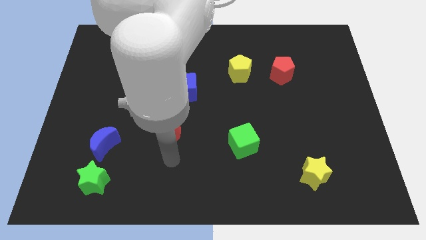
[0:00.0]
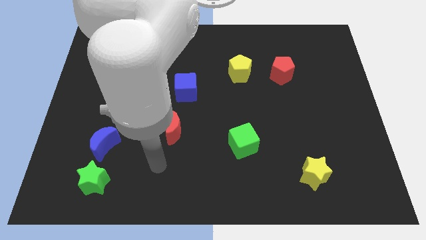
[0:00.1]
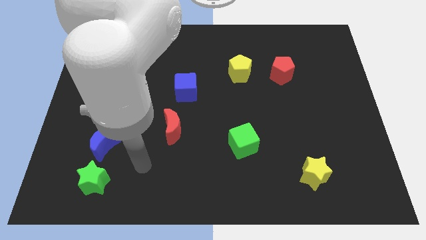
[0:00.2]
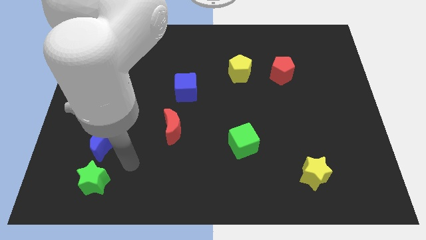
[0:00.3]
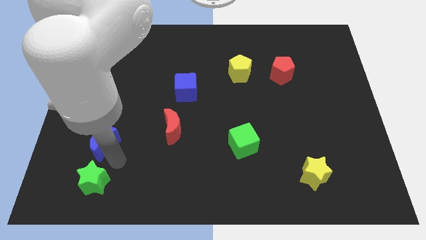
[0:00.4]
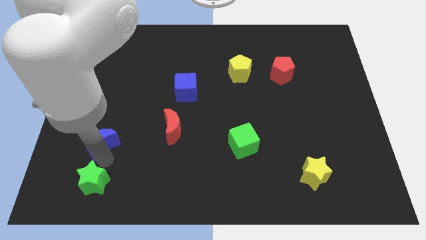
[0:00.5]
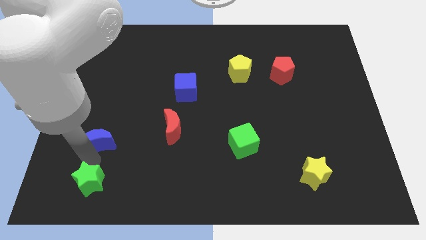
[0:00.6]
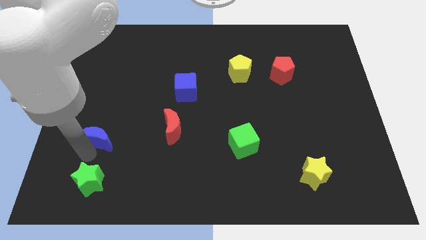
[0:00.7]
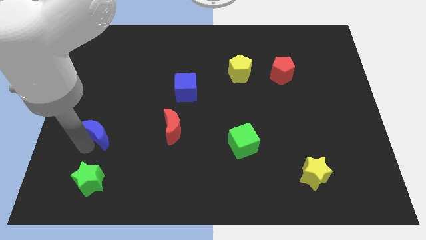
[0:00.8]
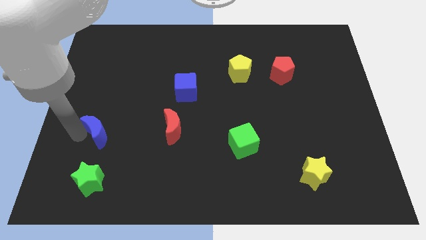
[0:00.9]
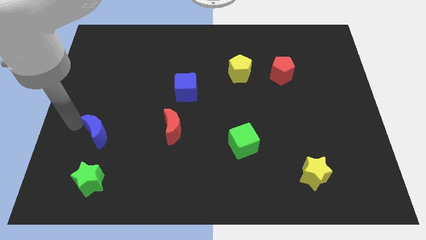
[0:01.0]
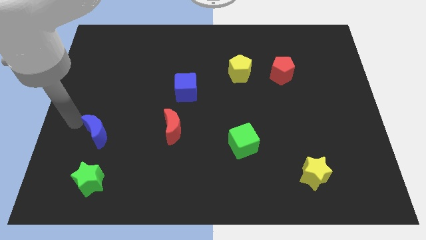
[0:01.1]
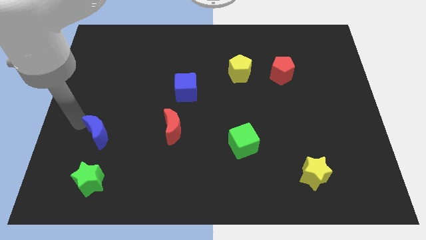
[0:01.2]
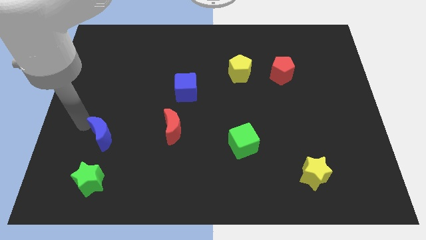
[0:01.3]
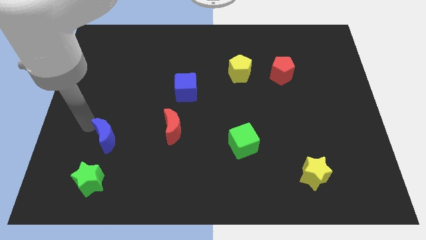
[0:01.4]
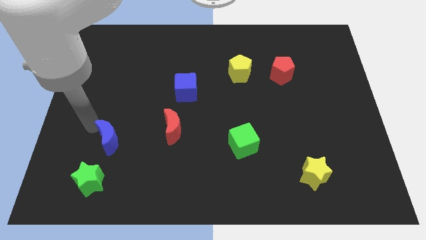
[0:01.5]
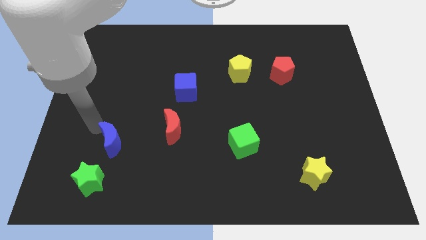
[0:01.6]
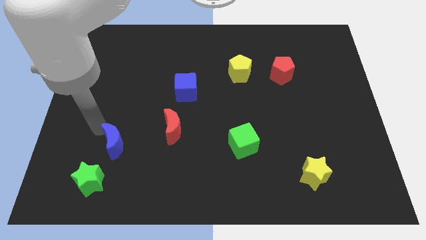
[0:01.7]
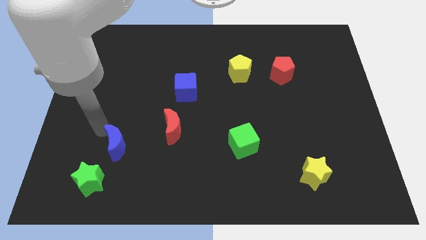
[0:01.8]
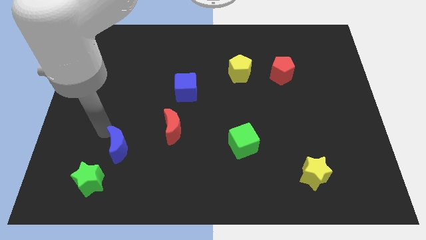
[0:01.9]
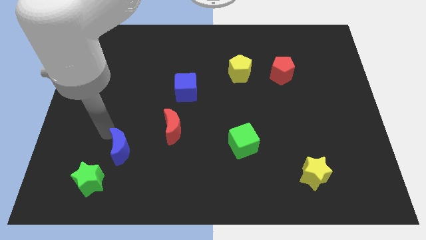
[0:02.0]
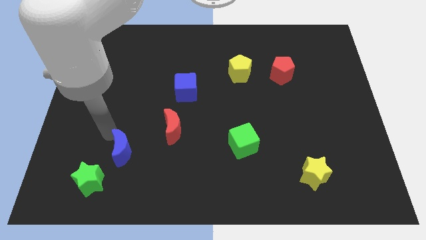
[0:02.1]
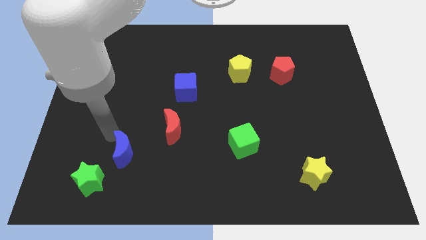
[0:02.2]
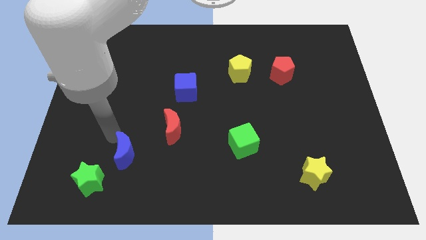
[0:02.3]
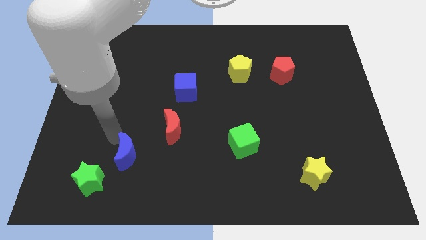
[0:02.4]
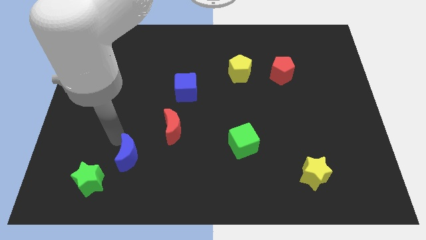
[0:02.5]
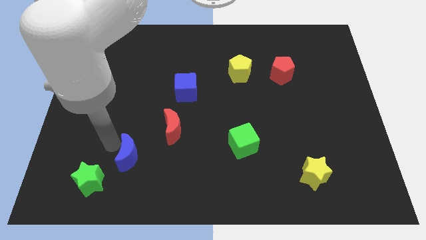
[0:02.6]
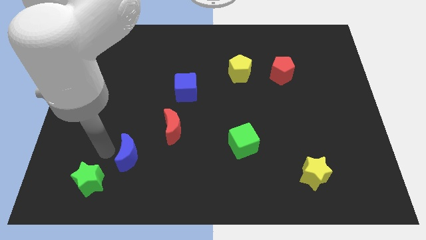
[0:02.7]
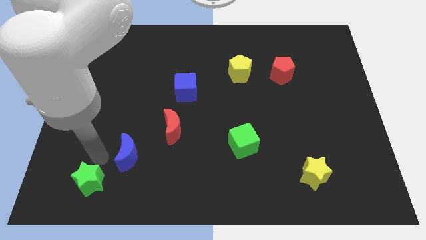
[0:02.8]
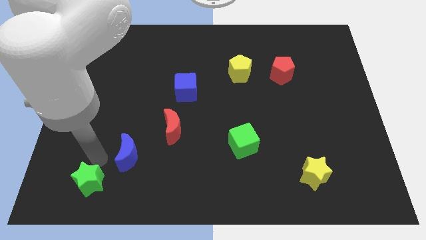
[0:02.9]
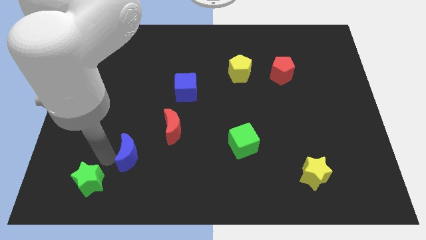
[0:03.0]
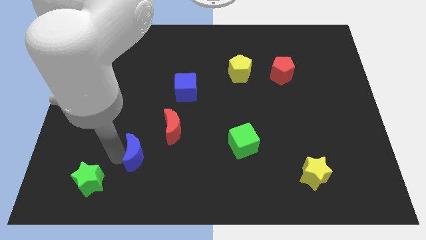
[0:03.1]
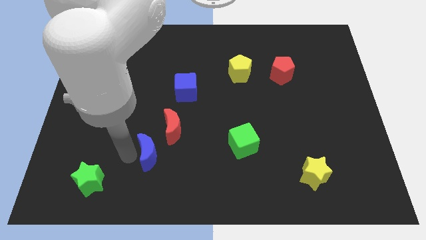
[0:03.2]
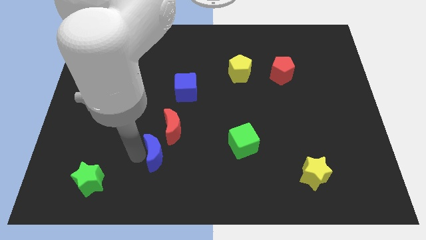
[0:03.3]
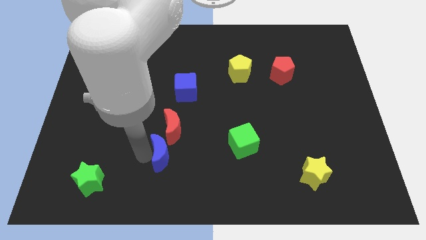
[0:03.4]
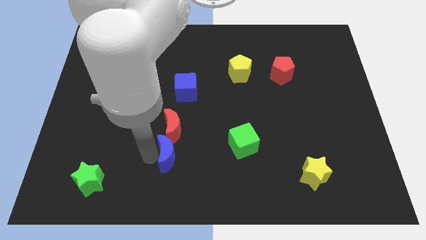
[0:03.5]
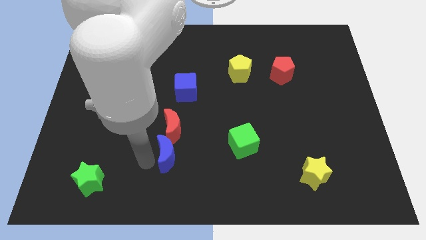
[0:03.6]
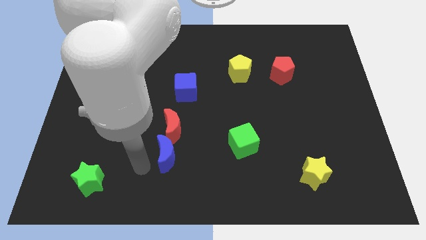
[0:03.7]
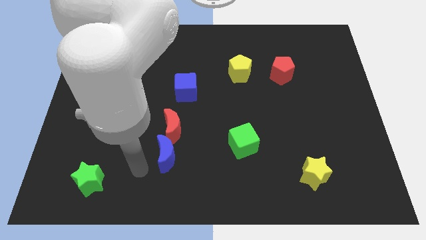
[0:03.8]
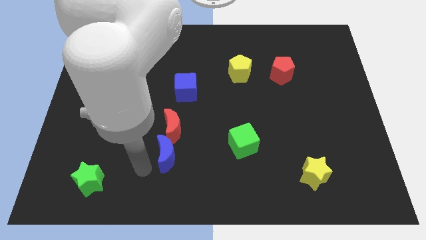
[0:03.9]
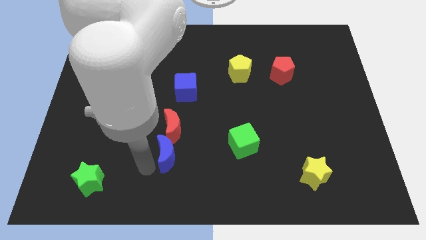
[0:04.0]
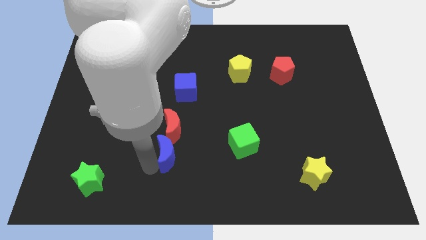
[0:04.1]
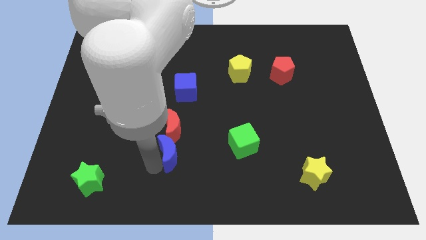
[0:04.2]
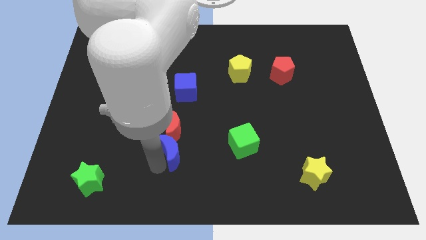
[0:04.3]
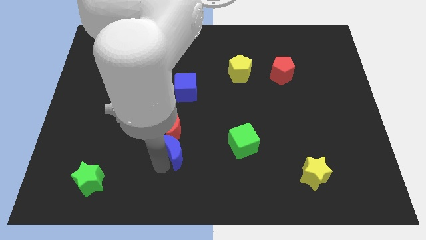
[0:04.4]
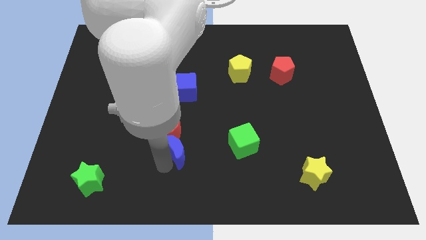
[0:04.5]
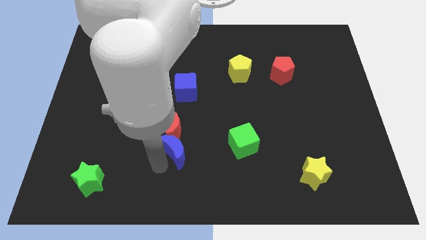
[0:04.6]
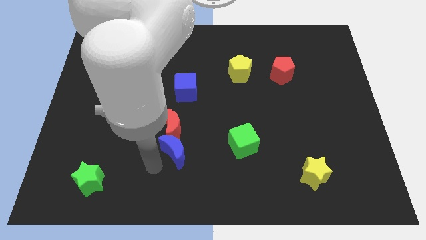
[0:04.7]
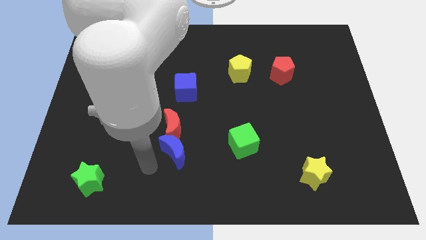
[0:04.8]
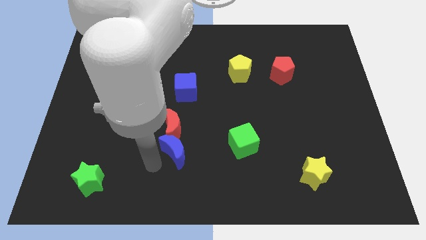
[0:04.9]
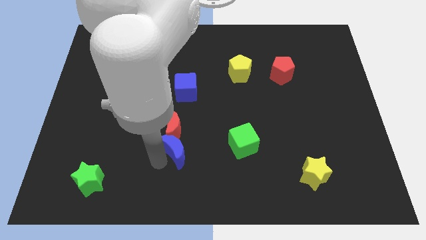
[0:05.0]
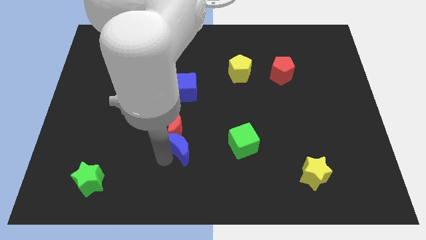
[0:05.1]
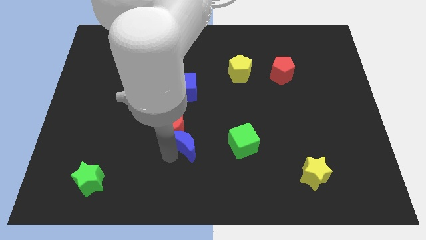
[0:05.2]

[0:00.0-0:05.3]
push the blue moon below the blue cube

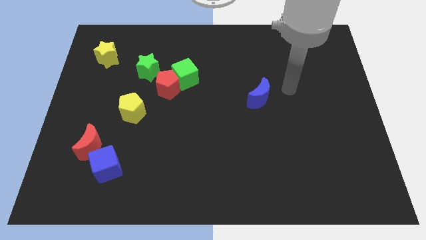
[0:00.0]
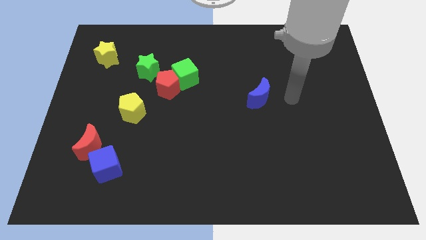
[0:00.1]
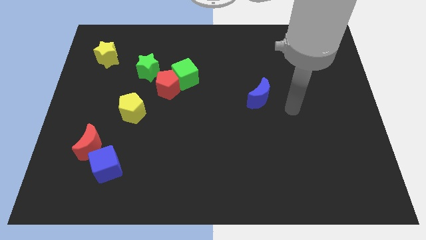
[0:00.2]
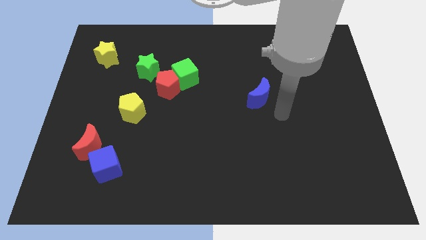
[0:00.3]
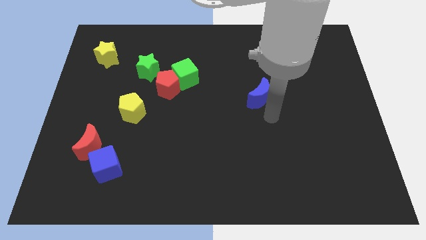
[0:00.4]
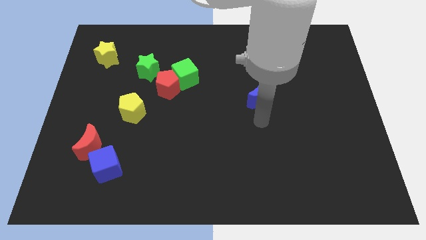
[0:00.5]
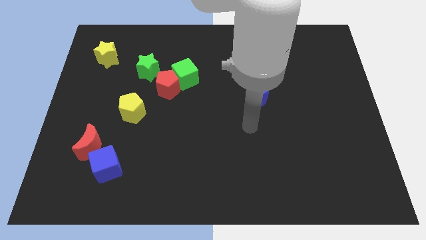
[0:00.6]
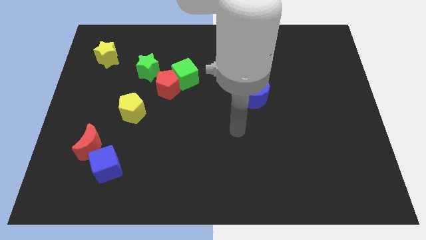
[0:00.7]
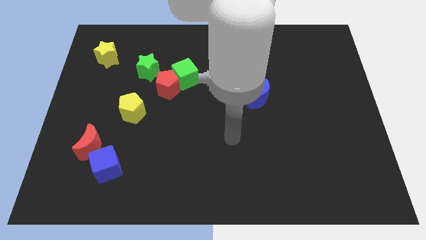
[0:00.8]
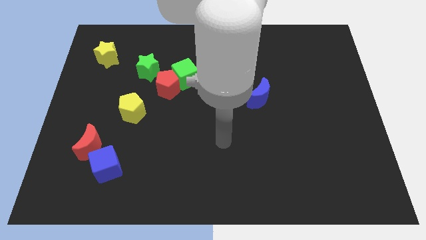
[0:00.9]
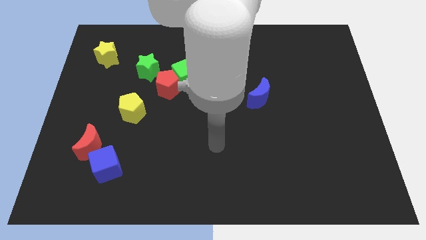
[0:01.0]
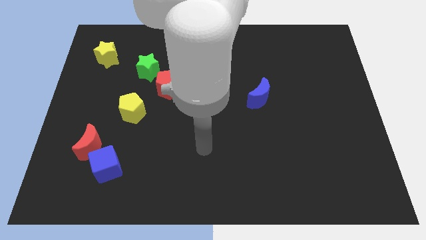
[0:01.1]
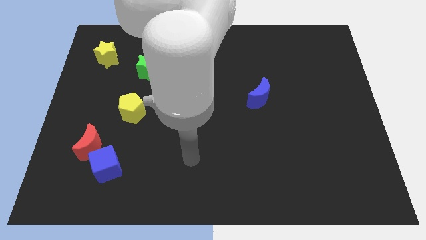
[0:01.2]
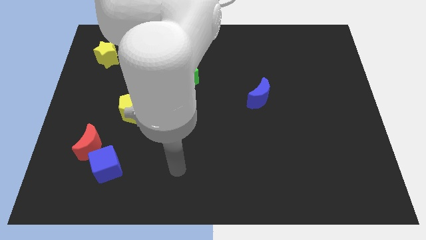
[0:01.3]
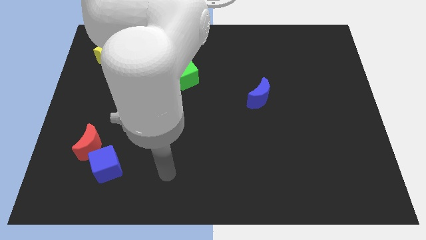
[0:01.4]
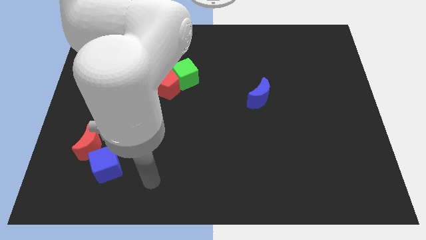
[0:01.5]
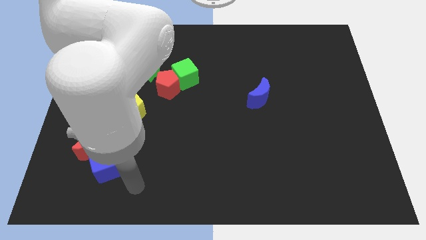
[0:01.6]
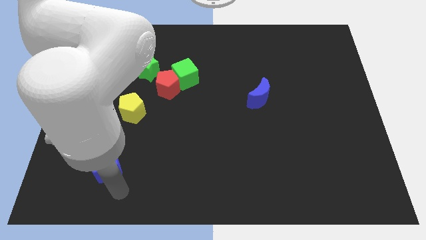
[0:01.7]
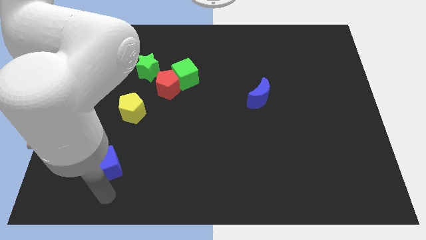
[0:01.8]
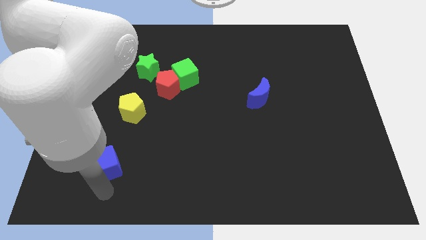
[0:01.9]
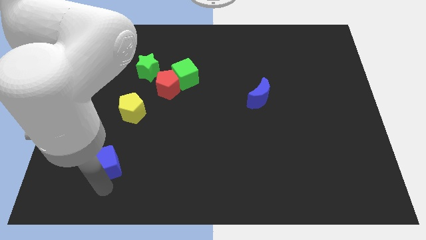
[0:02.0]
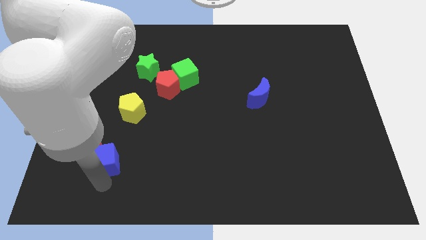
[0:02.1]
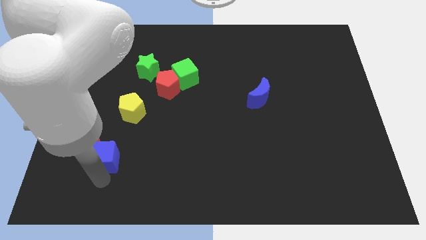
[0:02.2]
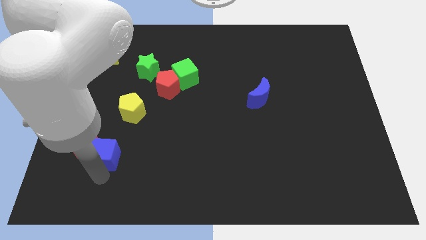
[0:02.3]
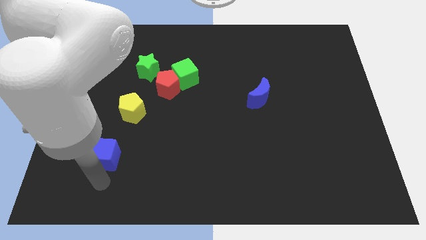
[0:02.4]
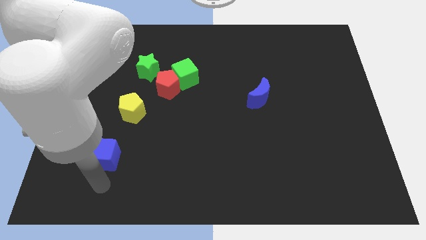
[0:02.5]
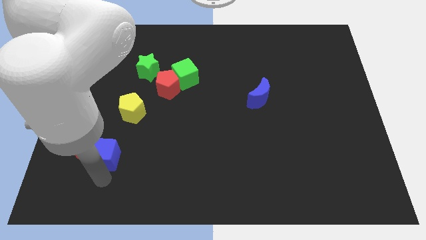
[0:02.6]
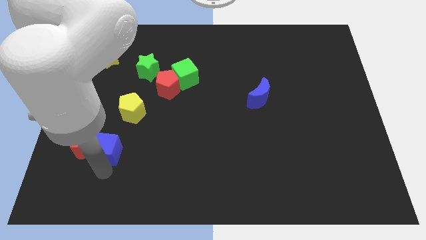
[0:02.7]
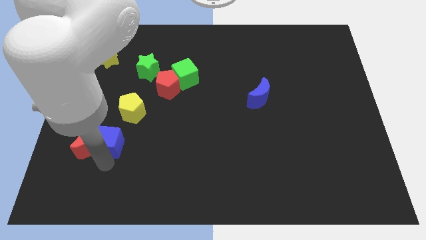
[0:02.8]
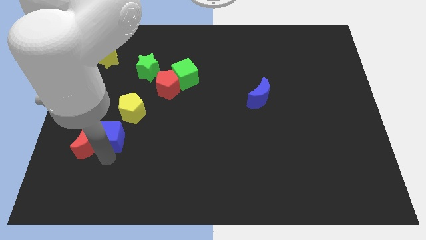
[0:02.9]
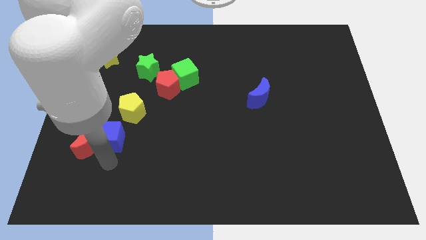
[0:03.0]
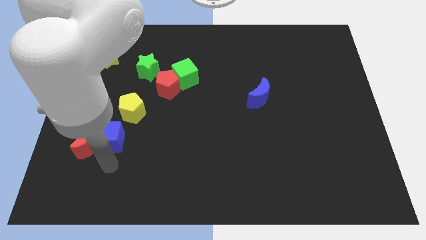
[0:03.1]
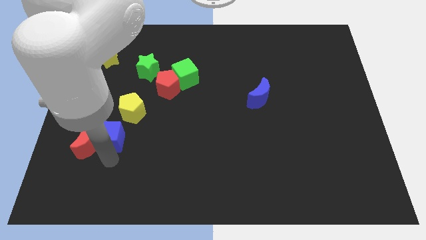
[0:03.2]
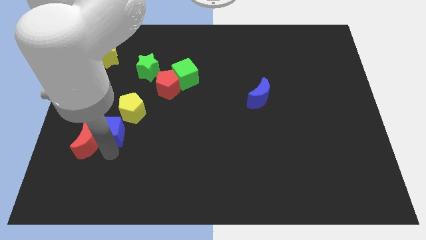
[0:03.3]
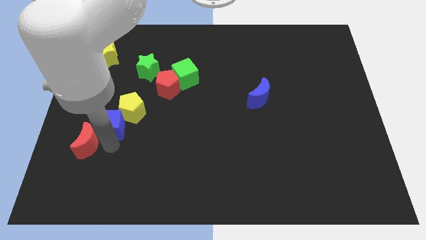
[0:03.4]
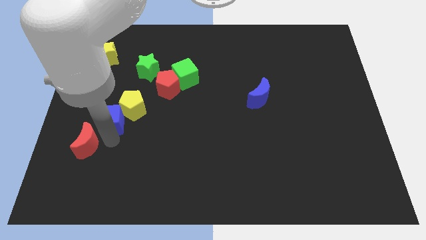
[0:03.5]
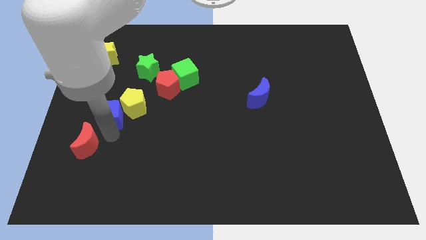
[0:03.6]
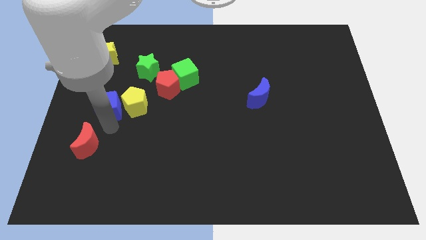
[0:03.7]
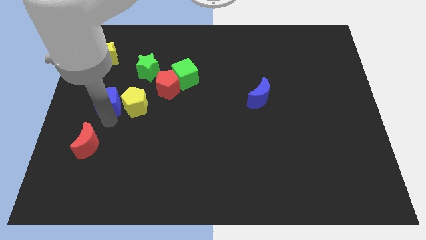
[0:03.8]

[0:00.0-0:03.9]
slide the blue cube to the top left side of the yellow pentagon
